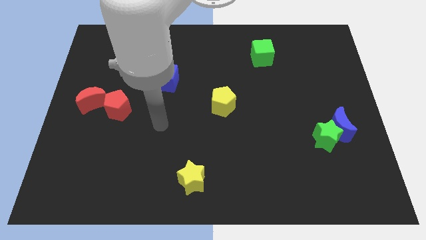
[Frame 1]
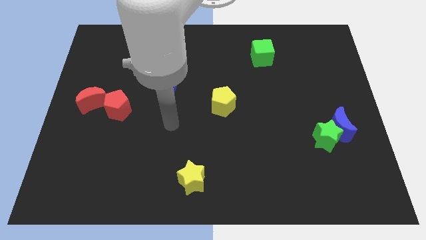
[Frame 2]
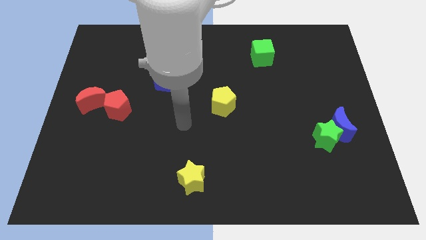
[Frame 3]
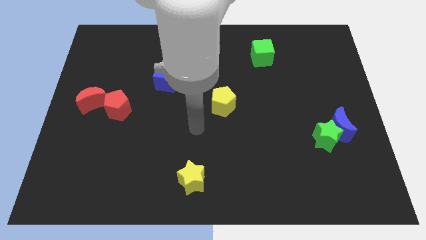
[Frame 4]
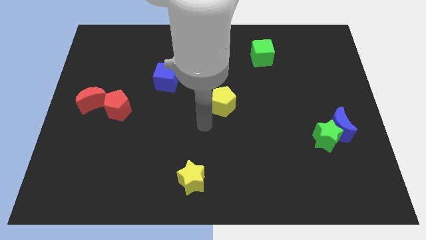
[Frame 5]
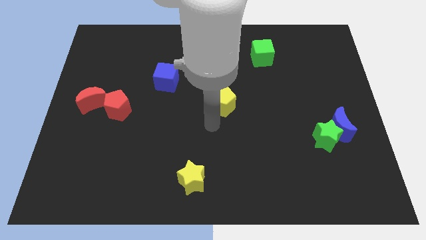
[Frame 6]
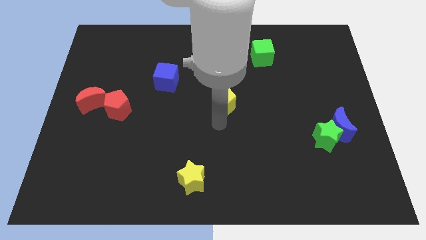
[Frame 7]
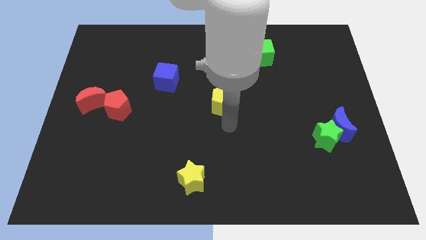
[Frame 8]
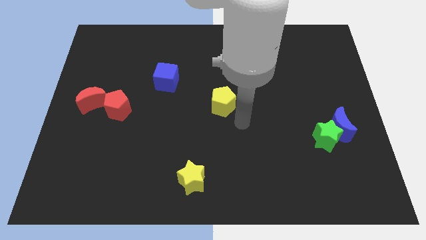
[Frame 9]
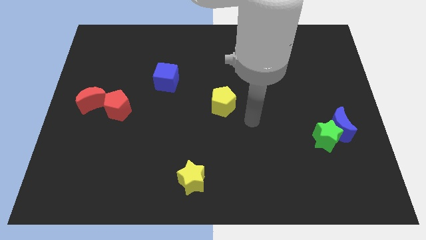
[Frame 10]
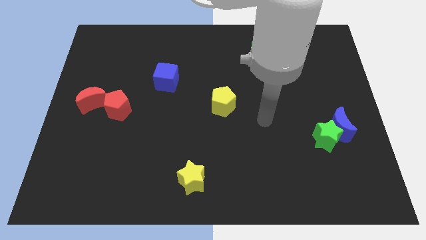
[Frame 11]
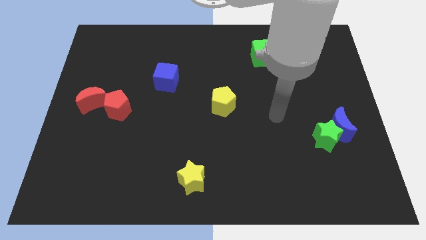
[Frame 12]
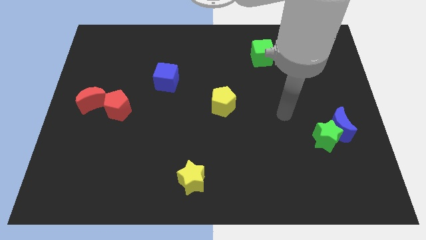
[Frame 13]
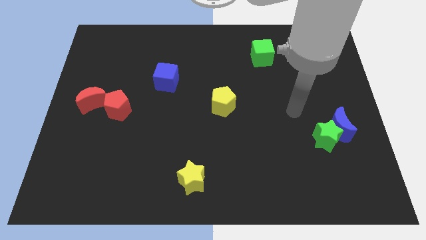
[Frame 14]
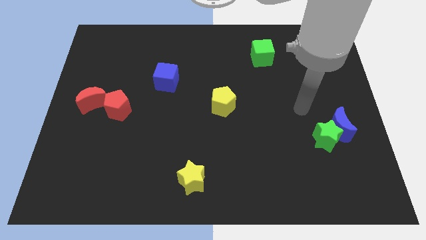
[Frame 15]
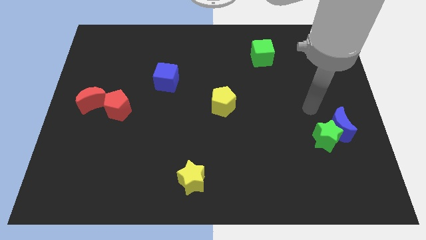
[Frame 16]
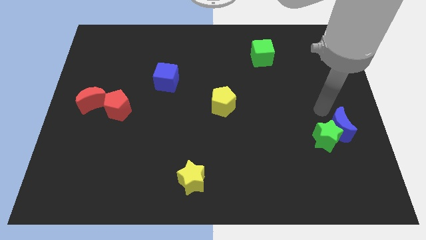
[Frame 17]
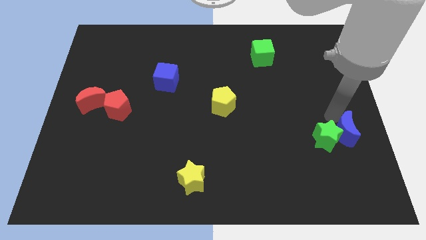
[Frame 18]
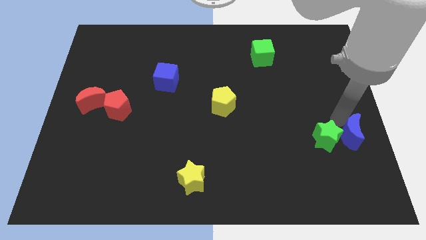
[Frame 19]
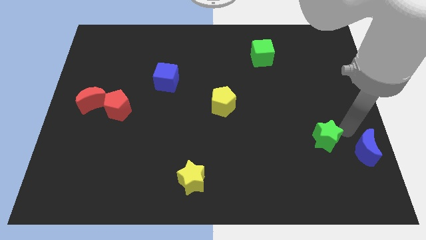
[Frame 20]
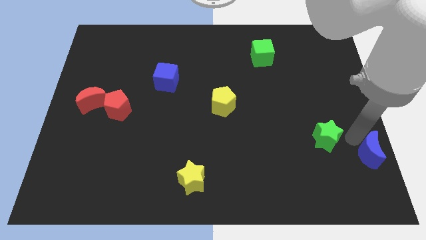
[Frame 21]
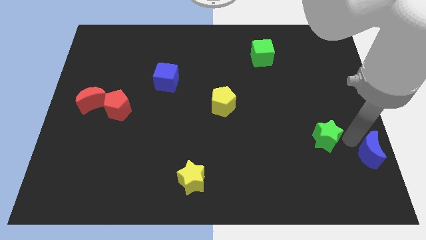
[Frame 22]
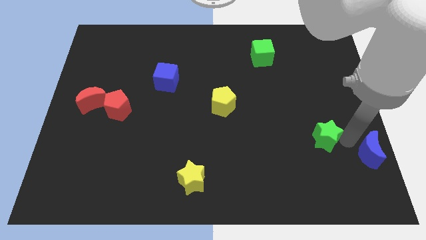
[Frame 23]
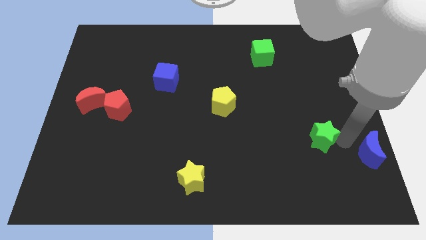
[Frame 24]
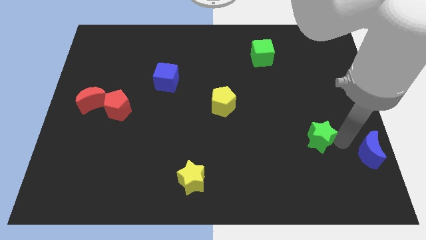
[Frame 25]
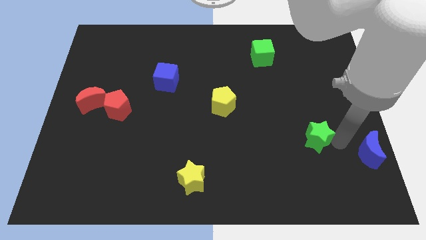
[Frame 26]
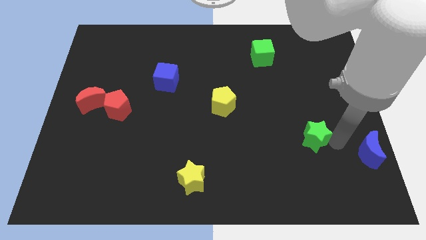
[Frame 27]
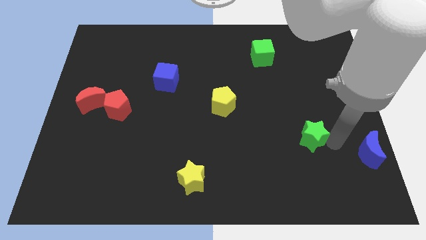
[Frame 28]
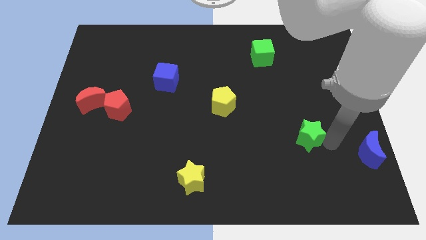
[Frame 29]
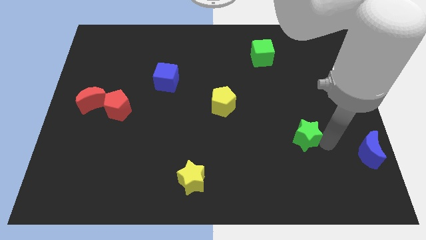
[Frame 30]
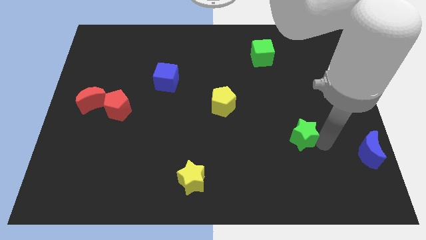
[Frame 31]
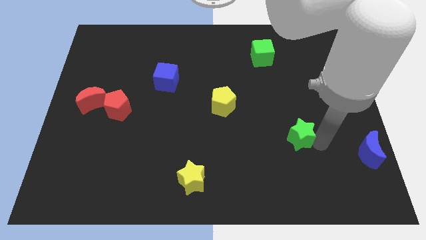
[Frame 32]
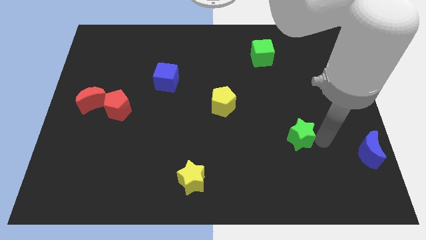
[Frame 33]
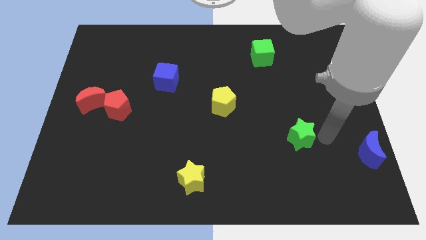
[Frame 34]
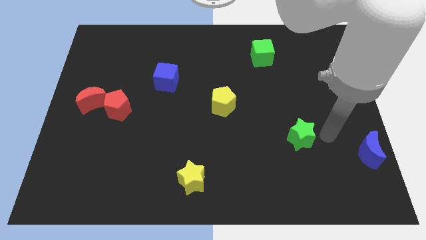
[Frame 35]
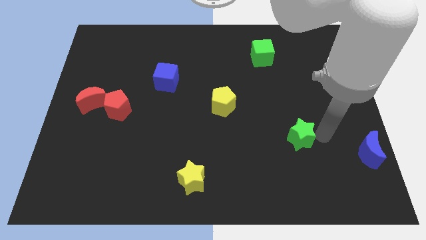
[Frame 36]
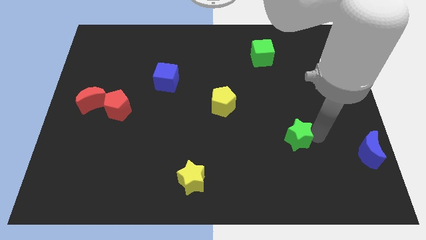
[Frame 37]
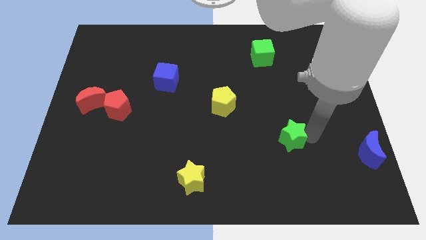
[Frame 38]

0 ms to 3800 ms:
slightly push the green star left

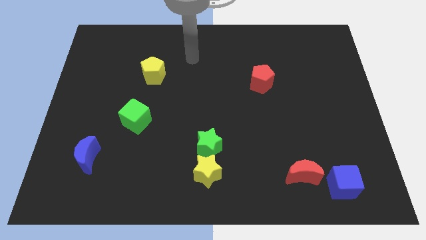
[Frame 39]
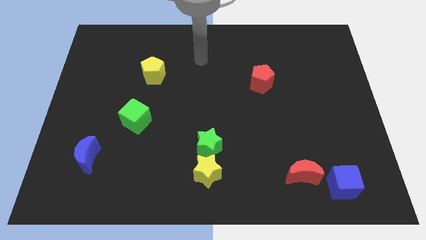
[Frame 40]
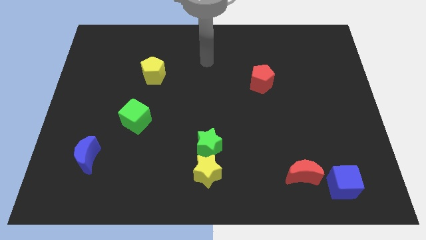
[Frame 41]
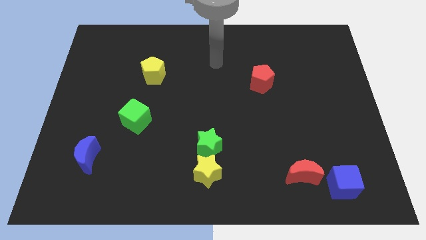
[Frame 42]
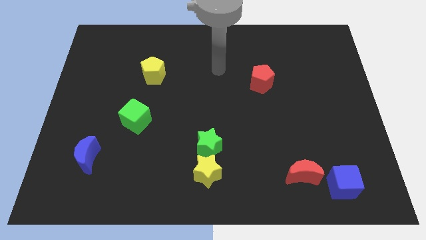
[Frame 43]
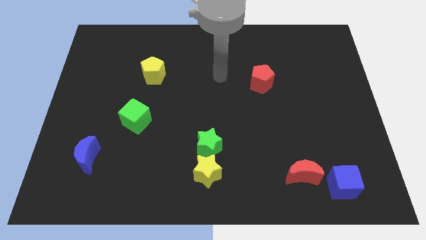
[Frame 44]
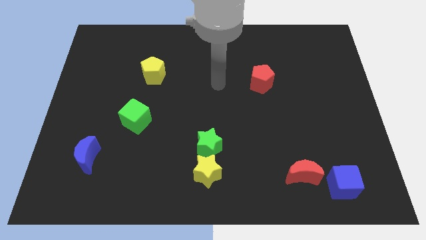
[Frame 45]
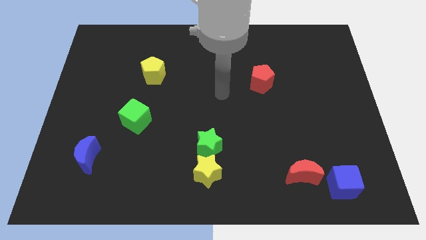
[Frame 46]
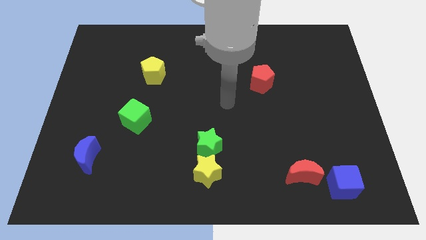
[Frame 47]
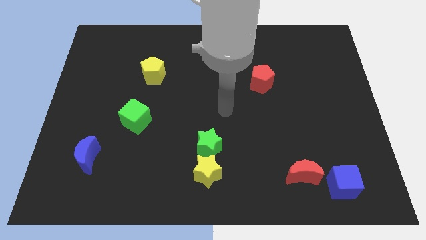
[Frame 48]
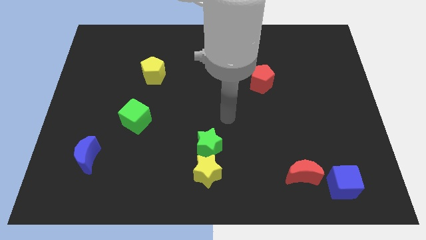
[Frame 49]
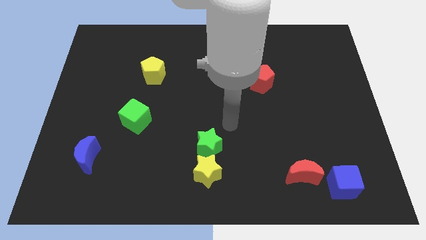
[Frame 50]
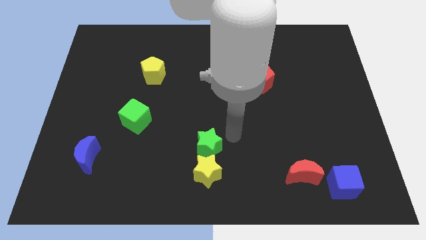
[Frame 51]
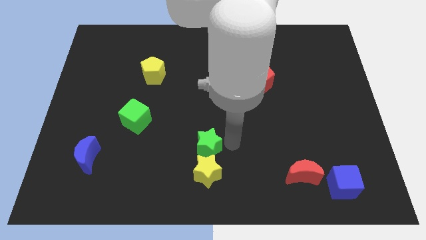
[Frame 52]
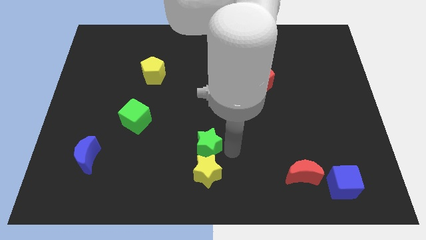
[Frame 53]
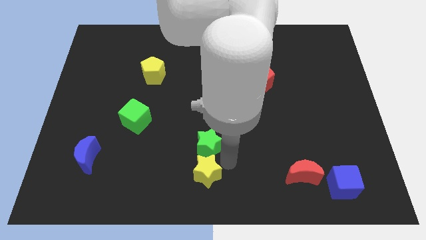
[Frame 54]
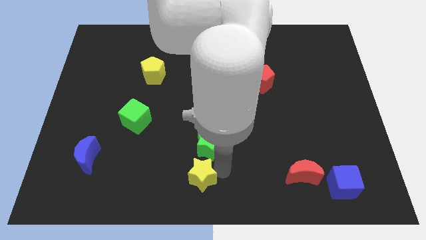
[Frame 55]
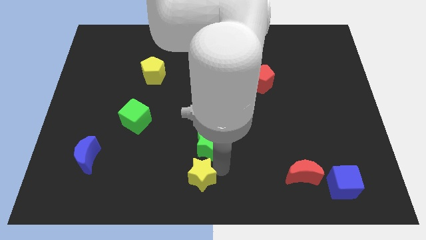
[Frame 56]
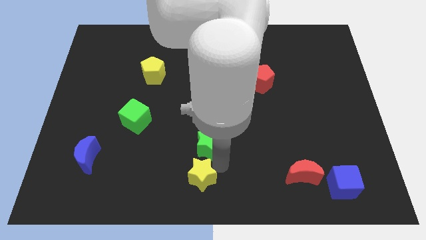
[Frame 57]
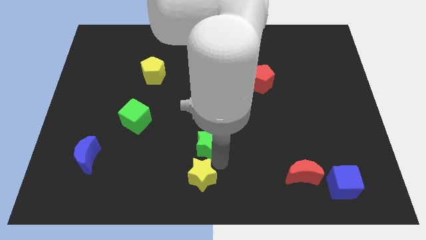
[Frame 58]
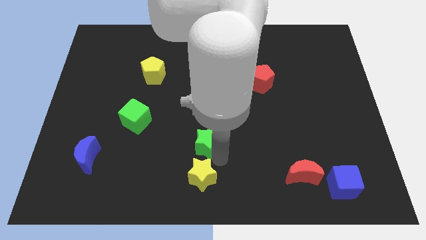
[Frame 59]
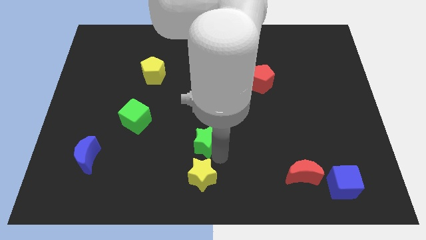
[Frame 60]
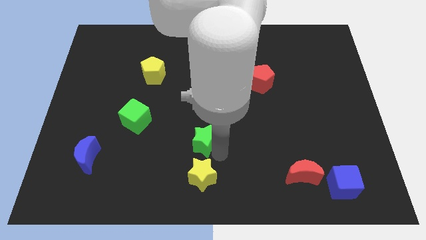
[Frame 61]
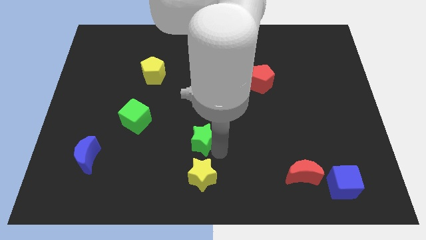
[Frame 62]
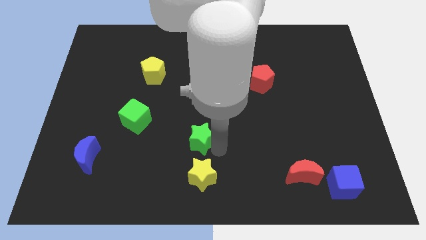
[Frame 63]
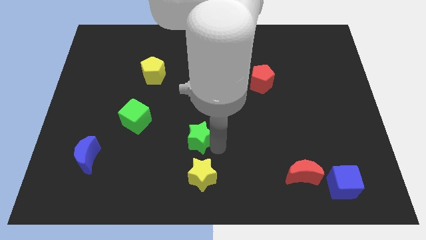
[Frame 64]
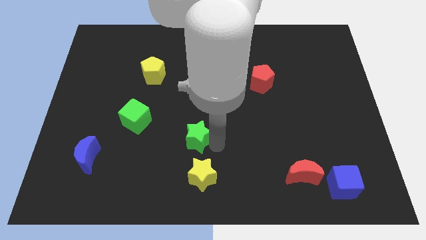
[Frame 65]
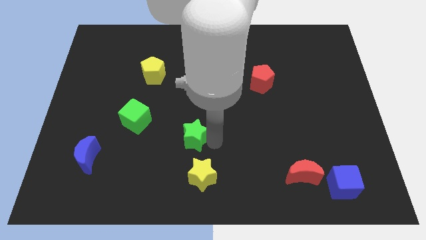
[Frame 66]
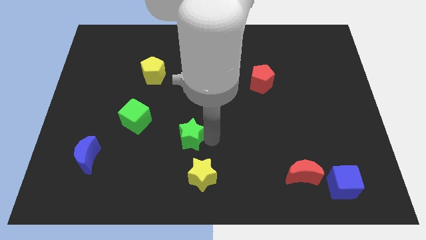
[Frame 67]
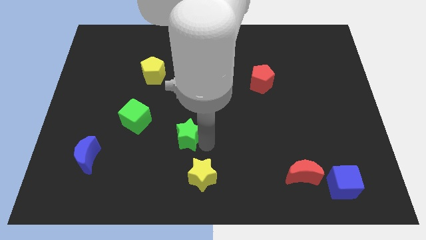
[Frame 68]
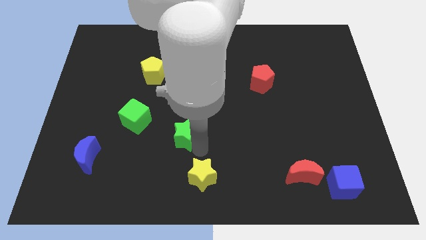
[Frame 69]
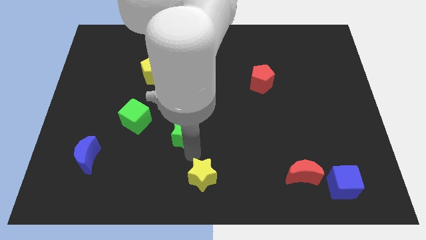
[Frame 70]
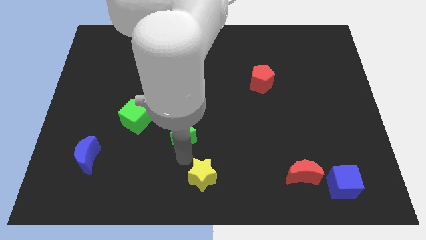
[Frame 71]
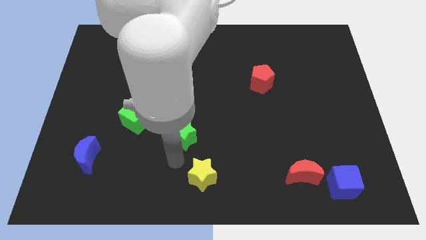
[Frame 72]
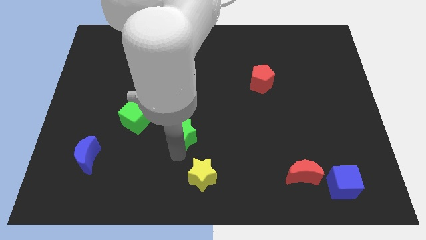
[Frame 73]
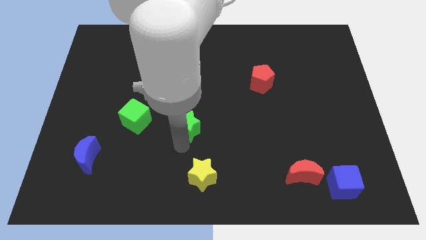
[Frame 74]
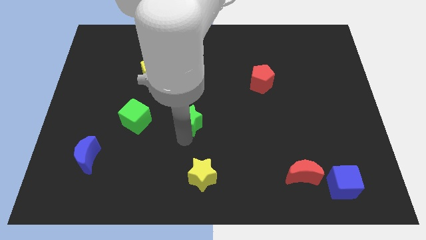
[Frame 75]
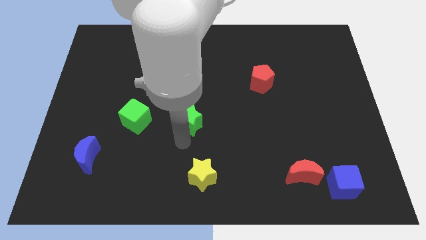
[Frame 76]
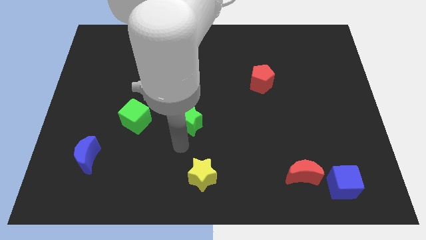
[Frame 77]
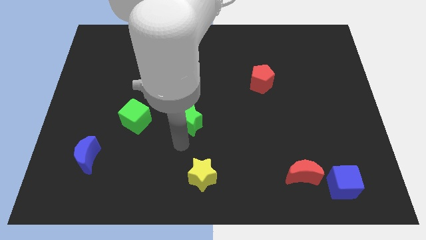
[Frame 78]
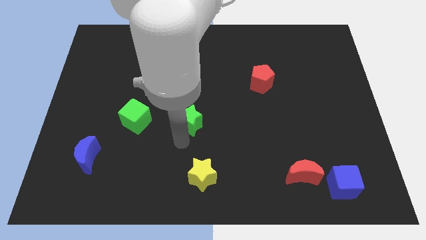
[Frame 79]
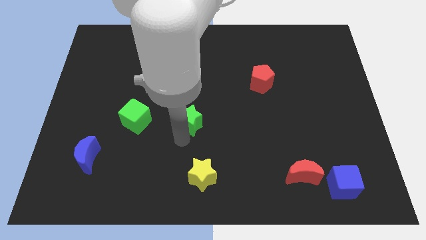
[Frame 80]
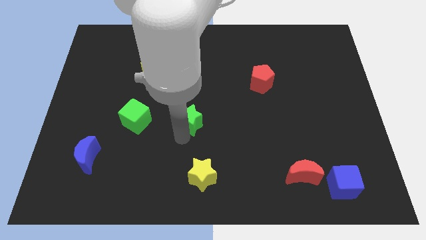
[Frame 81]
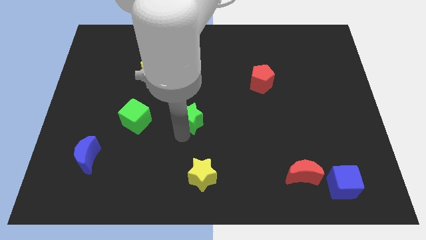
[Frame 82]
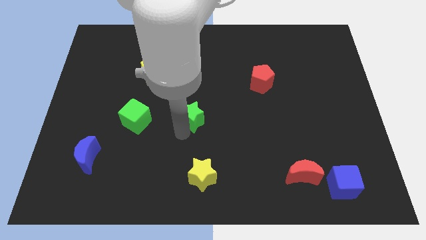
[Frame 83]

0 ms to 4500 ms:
slightly move the green star upwards
